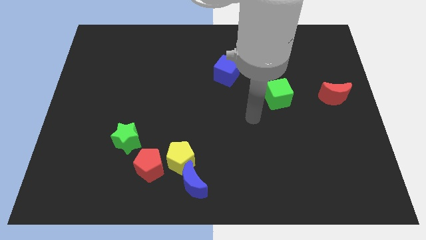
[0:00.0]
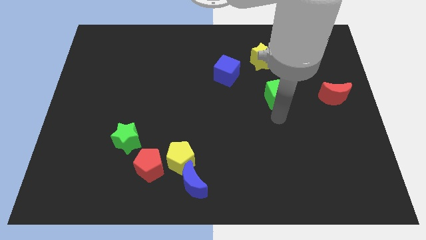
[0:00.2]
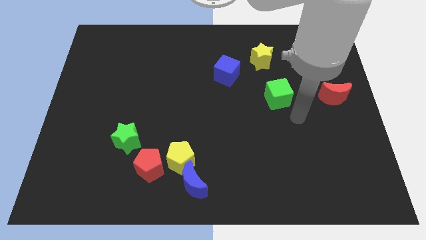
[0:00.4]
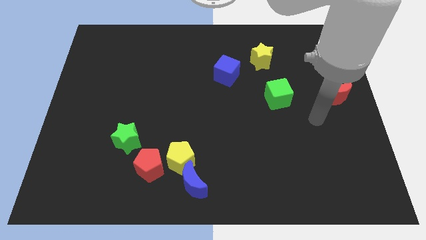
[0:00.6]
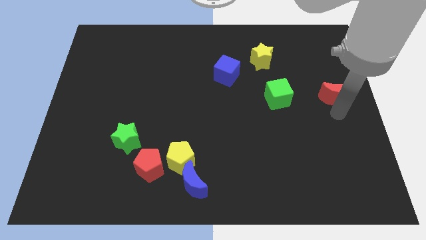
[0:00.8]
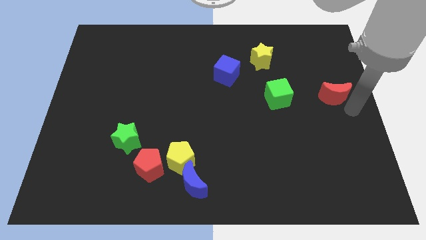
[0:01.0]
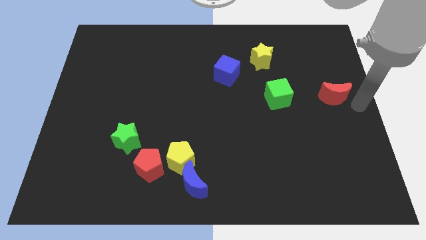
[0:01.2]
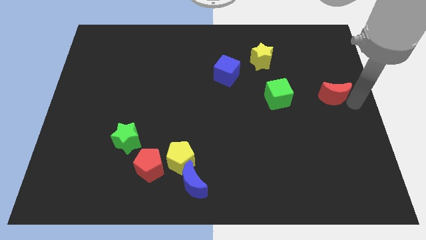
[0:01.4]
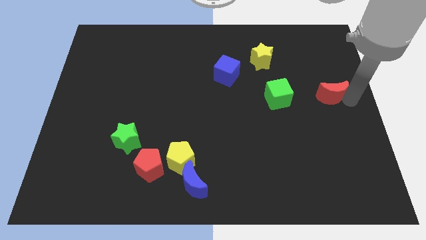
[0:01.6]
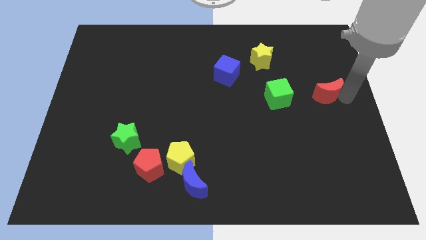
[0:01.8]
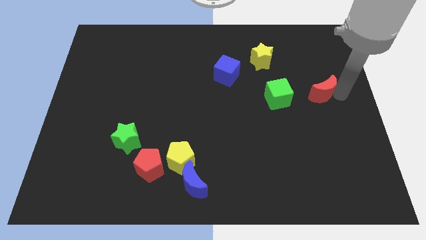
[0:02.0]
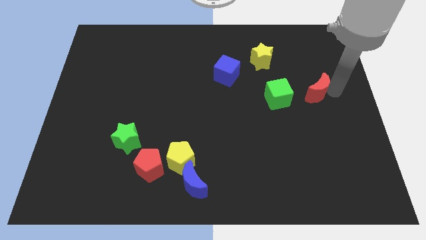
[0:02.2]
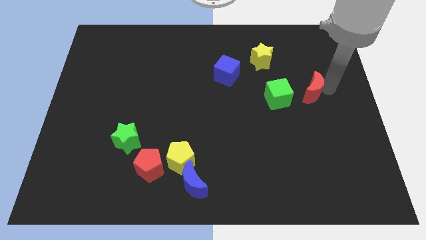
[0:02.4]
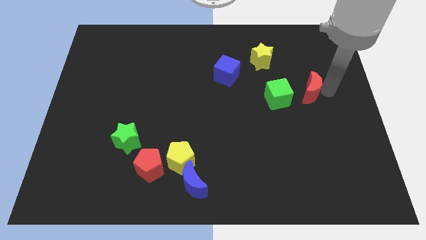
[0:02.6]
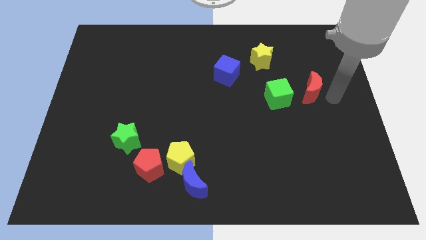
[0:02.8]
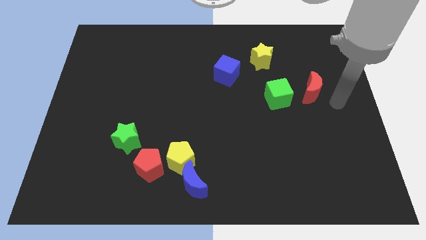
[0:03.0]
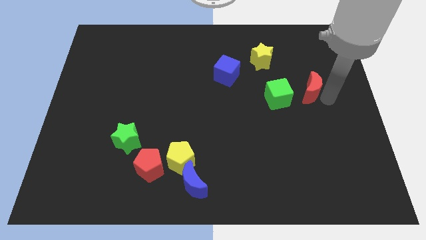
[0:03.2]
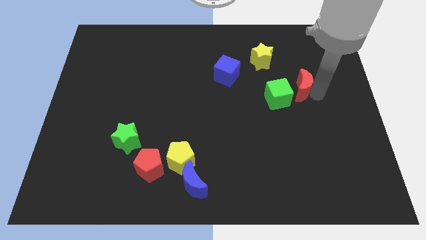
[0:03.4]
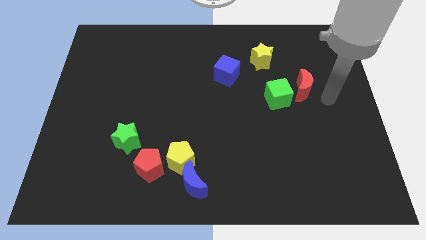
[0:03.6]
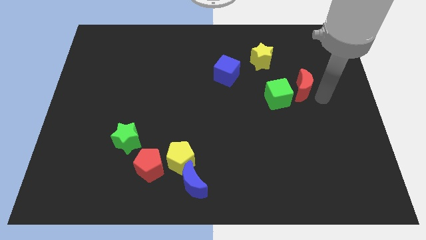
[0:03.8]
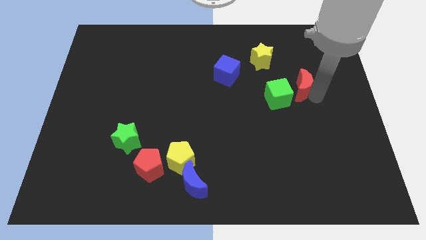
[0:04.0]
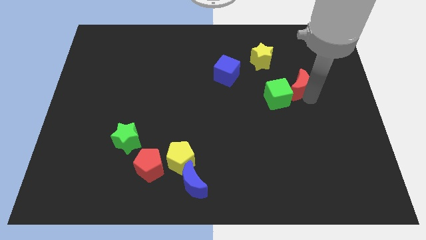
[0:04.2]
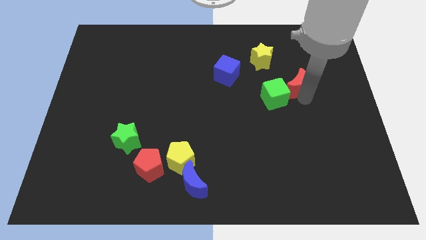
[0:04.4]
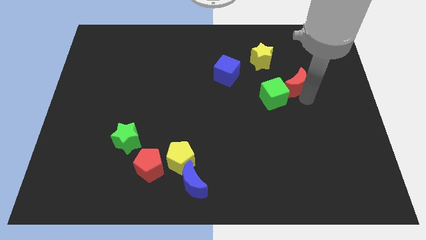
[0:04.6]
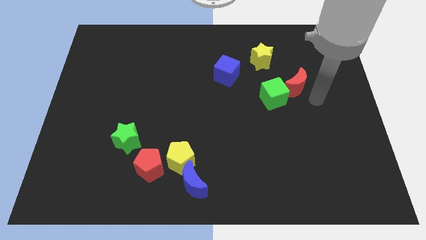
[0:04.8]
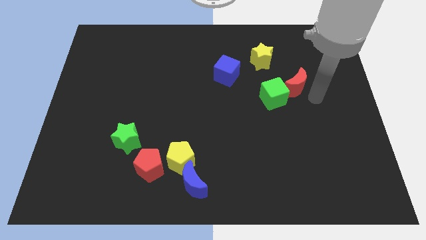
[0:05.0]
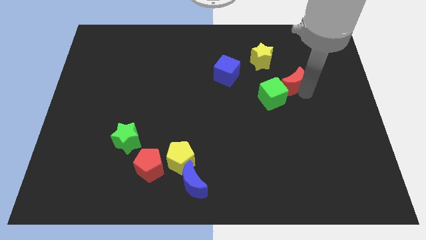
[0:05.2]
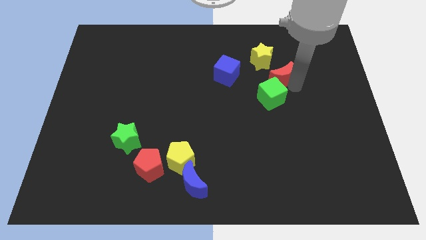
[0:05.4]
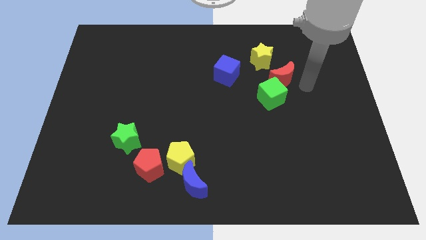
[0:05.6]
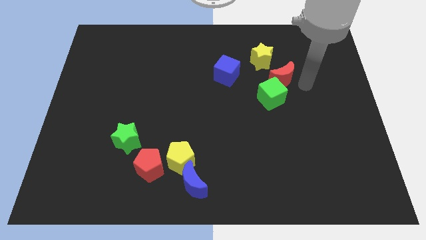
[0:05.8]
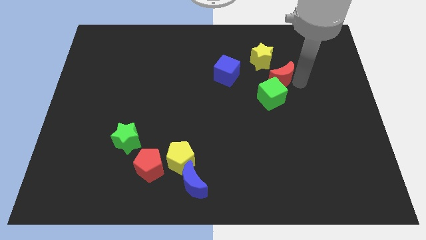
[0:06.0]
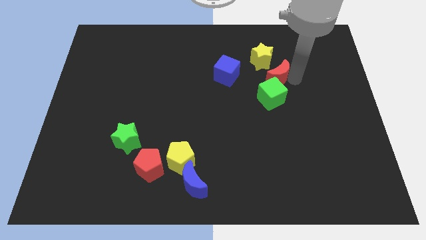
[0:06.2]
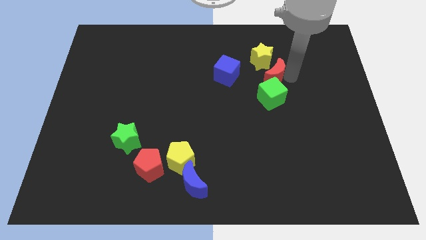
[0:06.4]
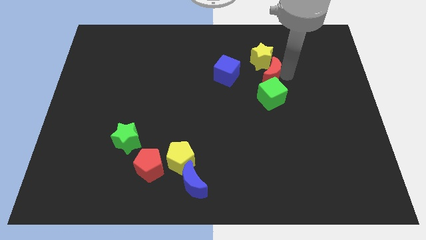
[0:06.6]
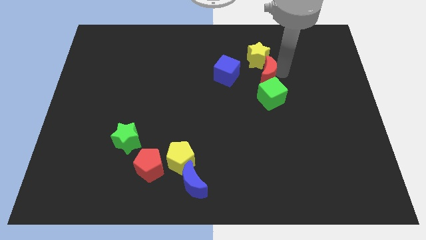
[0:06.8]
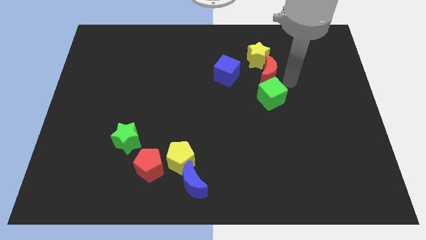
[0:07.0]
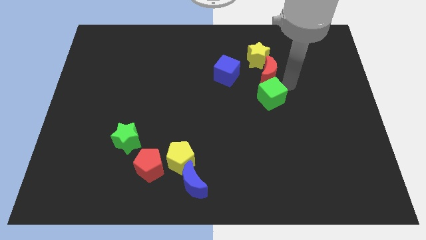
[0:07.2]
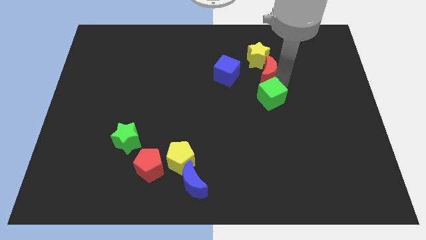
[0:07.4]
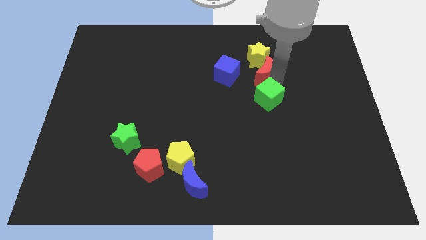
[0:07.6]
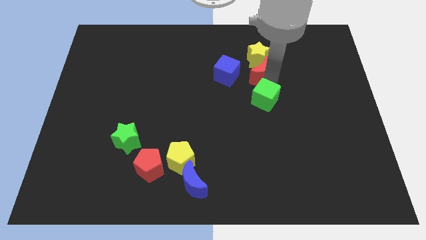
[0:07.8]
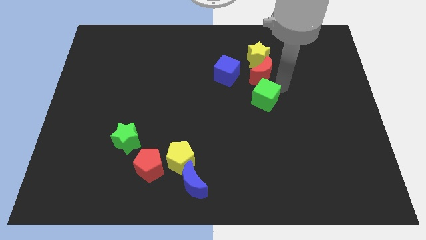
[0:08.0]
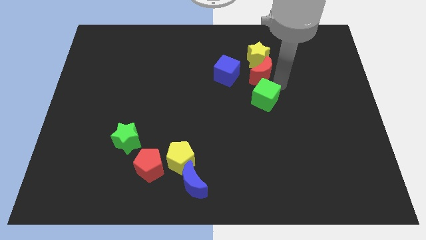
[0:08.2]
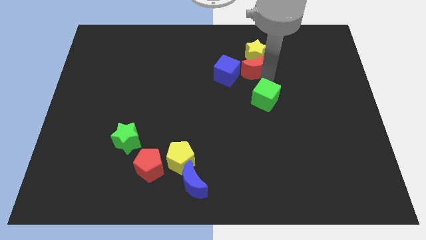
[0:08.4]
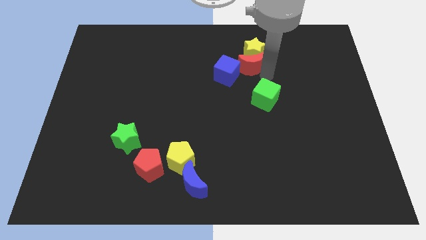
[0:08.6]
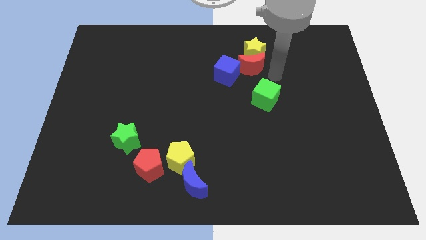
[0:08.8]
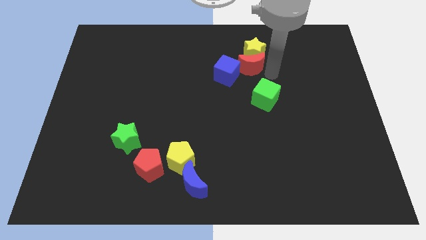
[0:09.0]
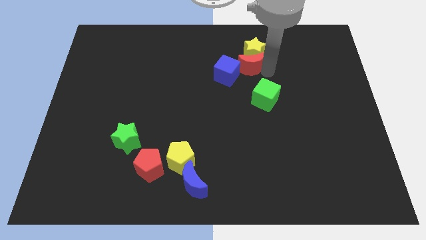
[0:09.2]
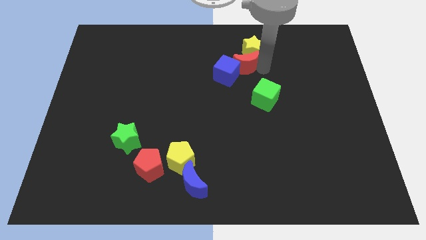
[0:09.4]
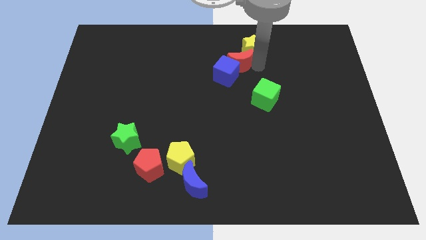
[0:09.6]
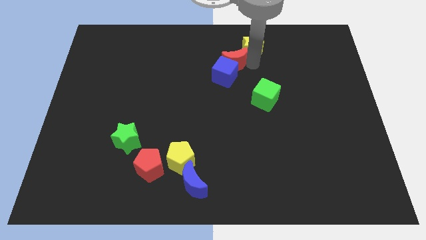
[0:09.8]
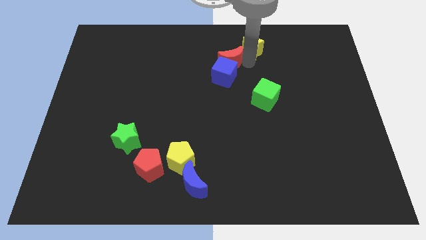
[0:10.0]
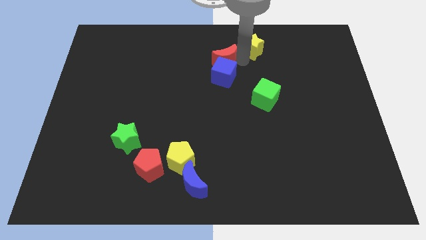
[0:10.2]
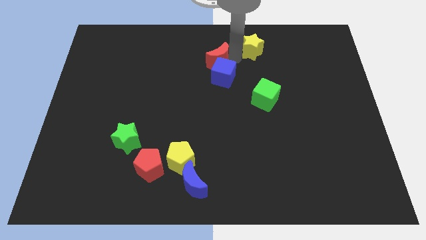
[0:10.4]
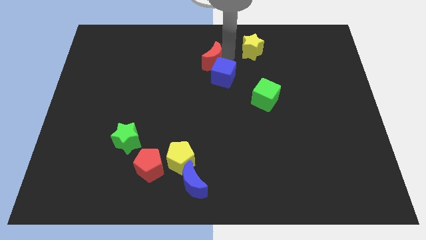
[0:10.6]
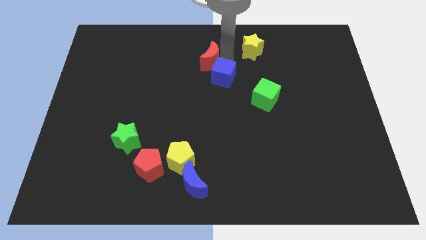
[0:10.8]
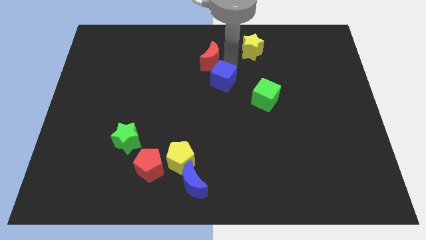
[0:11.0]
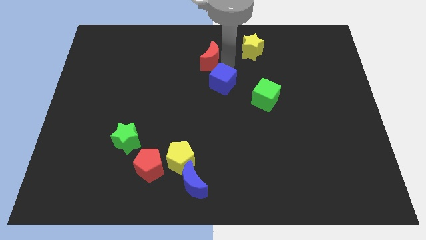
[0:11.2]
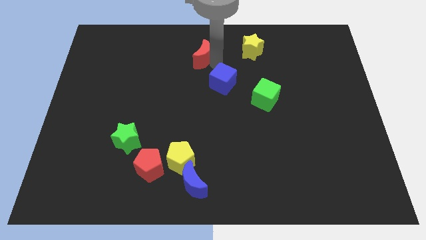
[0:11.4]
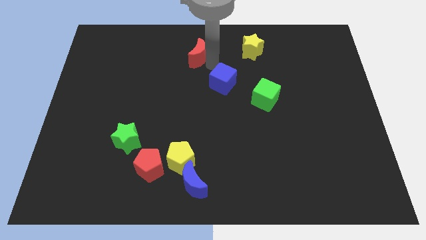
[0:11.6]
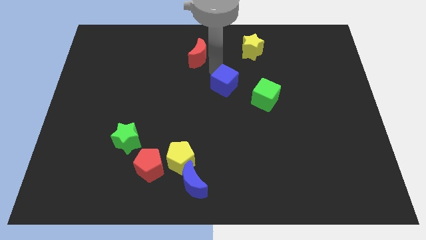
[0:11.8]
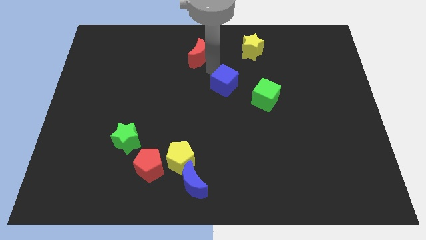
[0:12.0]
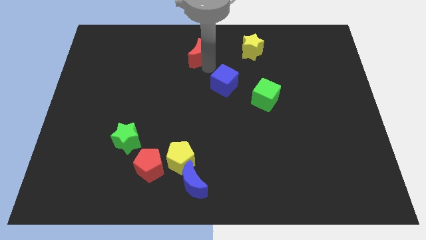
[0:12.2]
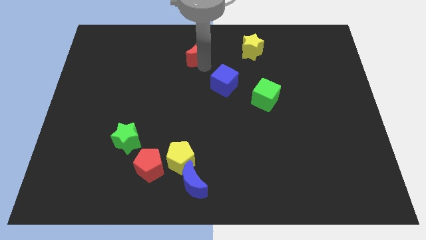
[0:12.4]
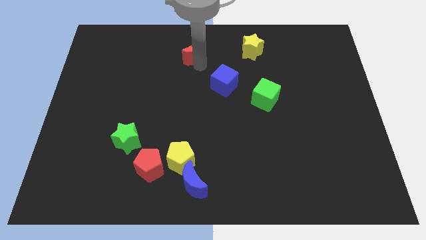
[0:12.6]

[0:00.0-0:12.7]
put the red moon to the top
